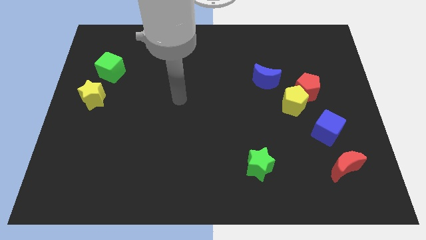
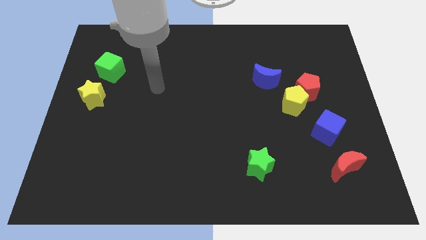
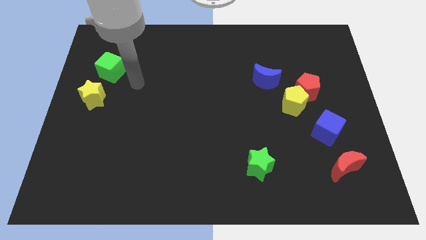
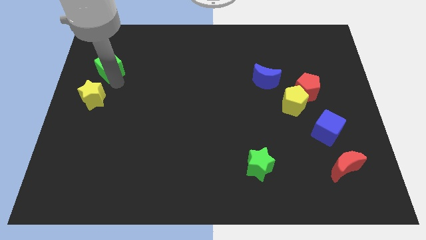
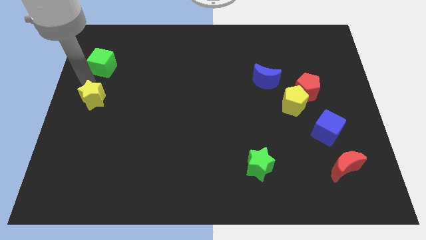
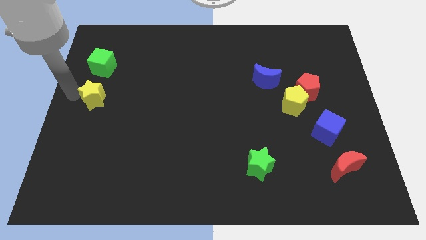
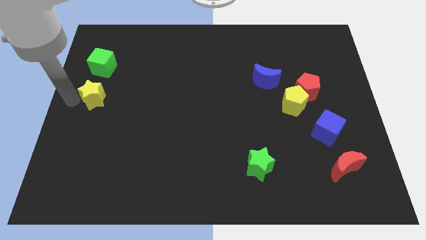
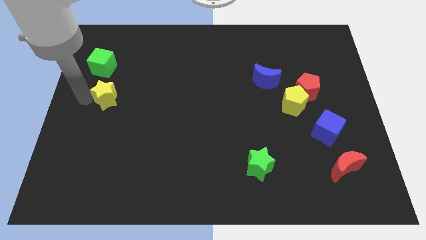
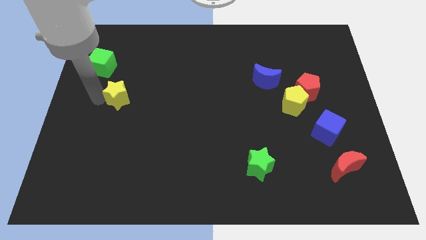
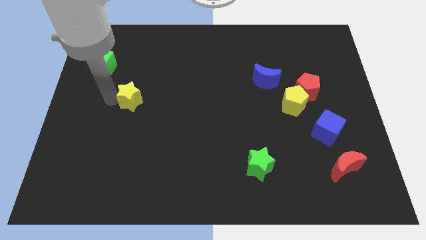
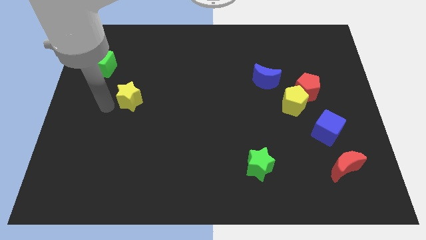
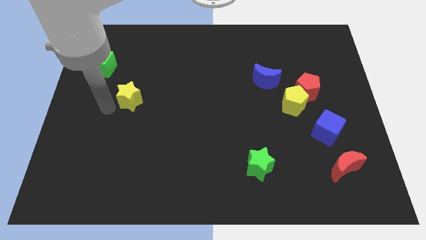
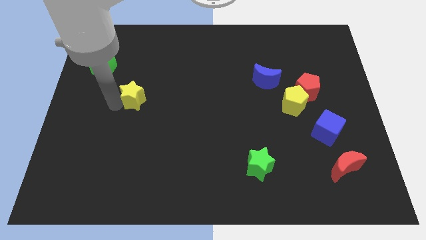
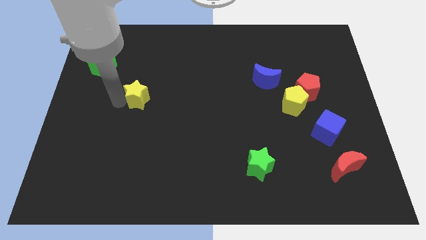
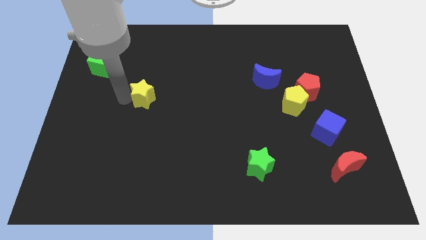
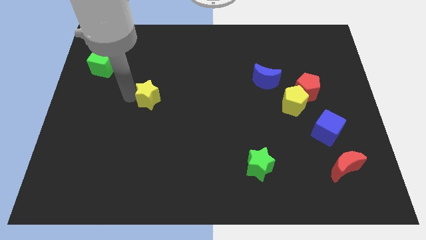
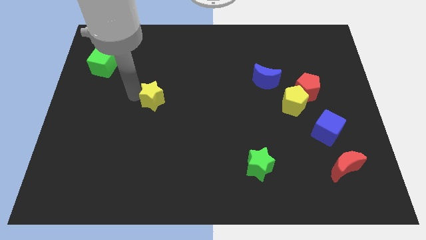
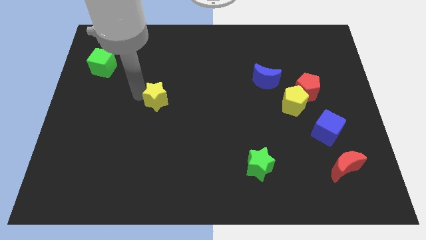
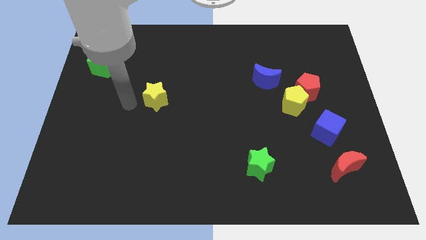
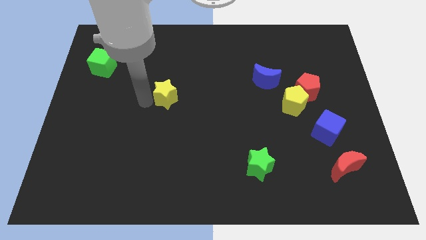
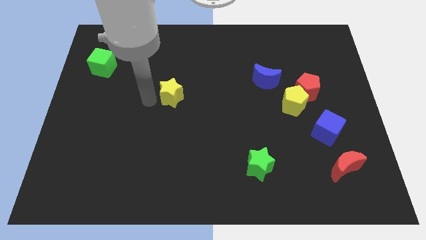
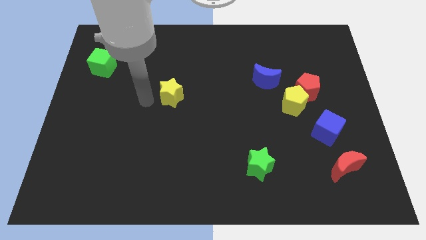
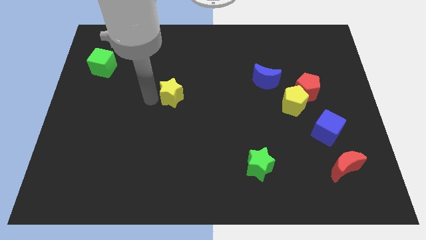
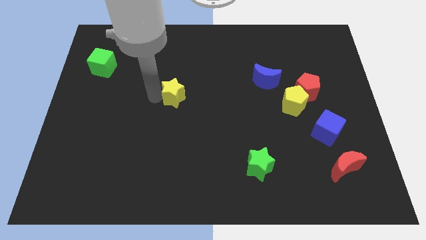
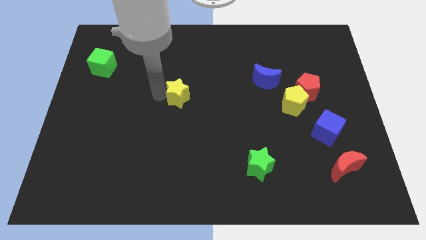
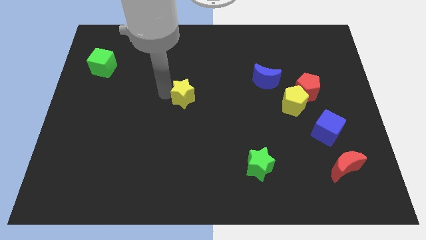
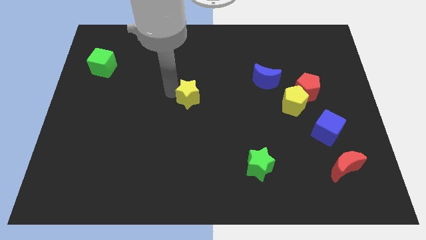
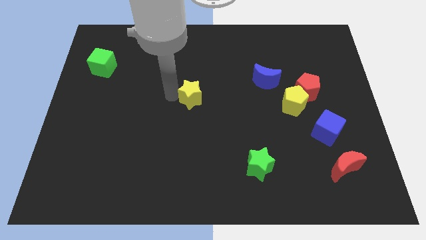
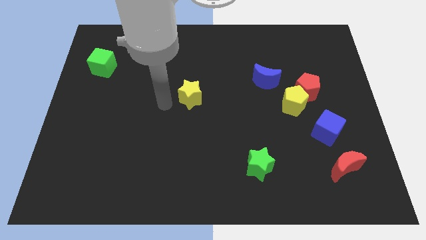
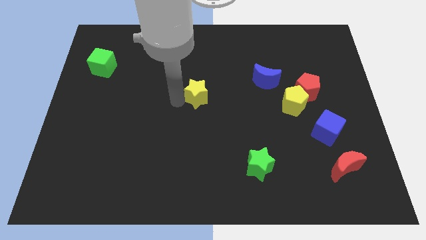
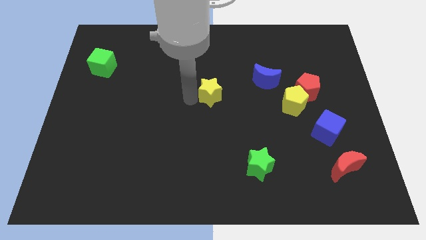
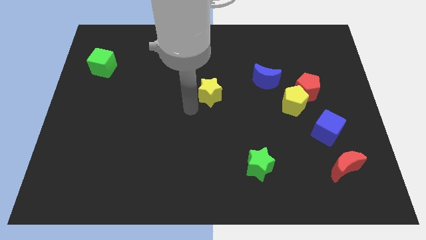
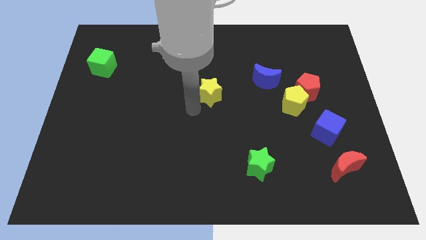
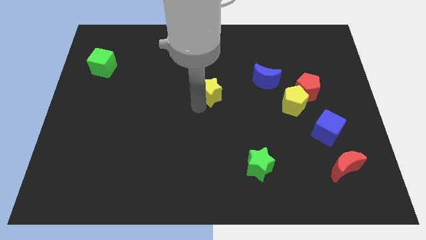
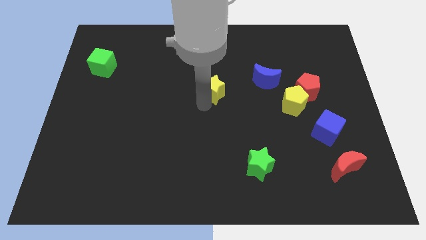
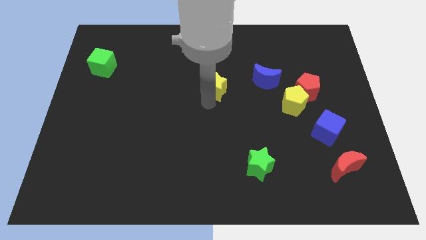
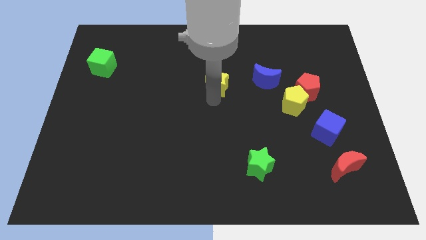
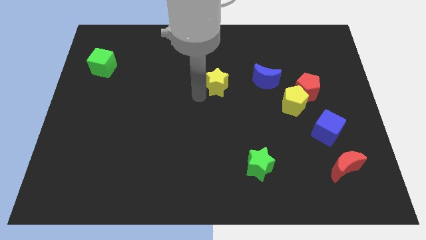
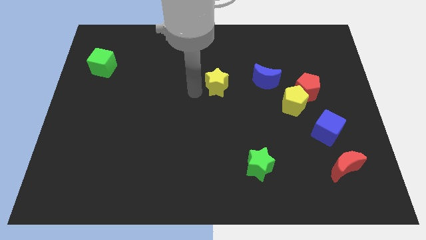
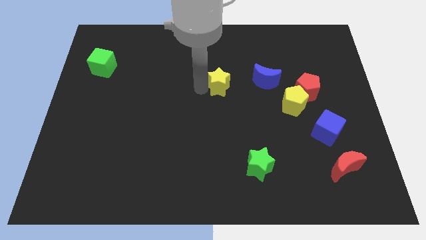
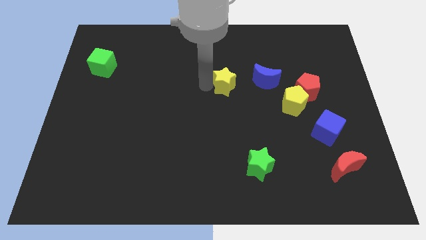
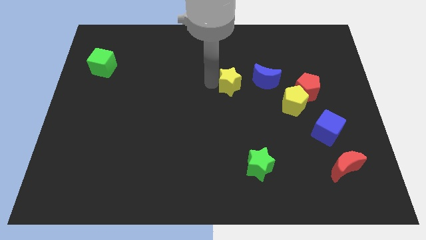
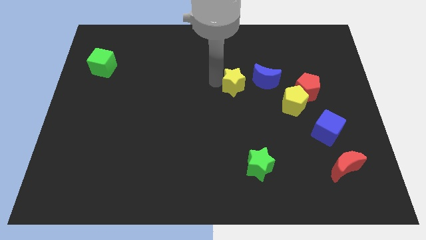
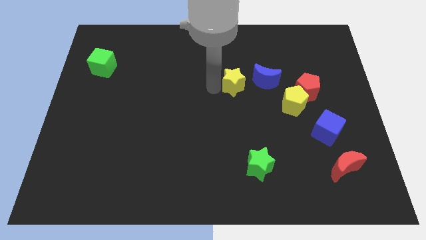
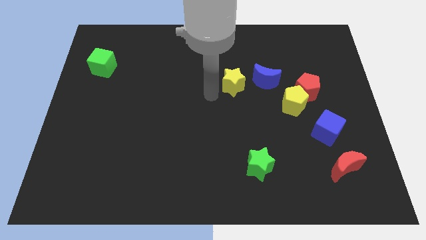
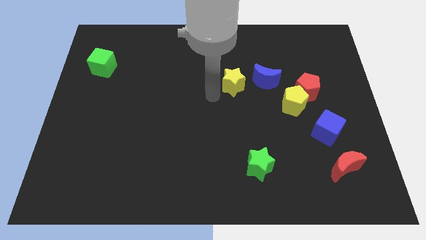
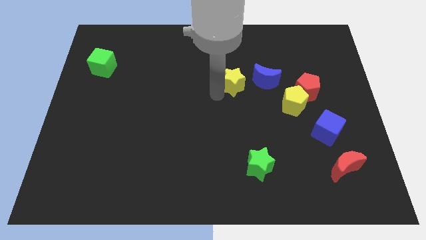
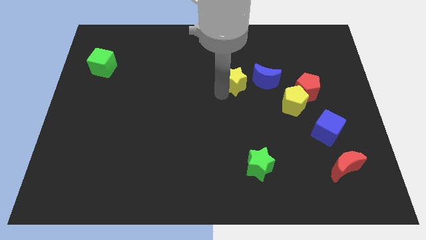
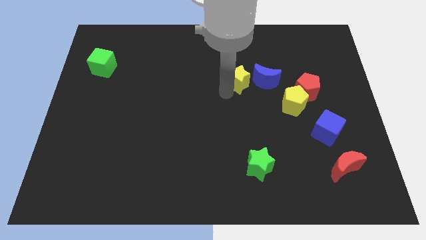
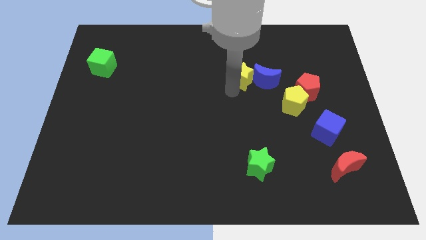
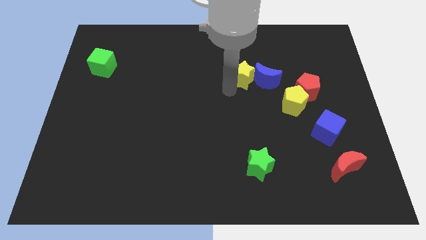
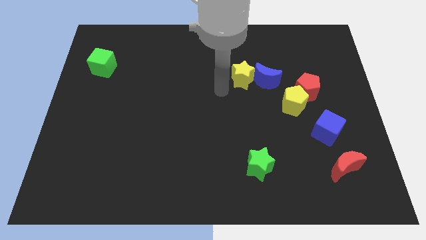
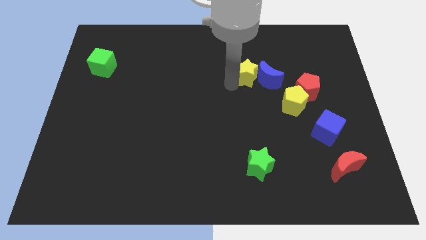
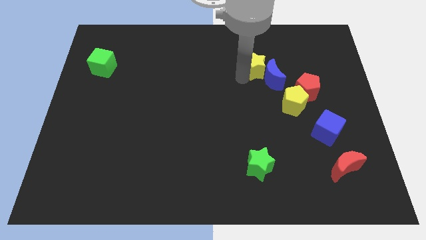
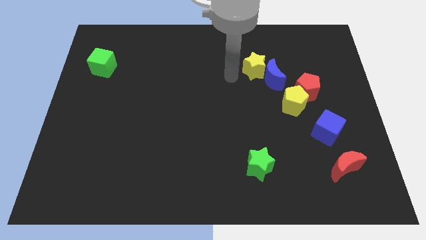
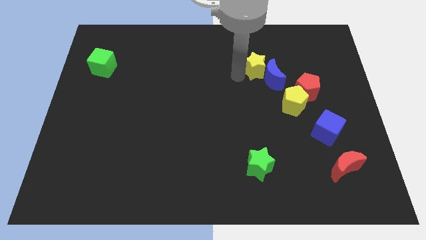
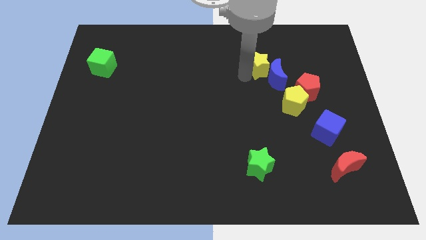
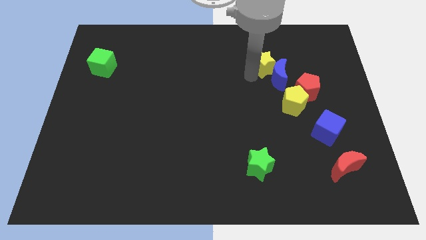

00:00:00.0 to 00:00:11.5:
move the yellow star diagonally up and to the left of the red pentagon

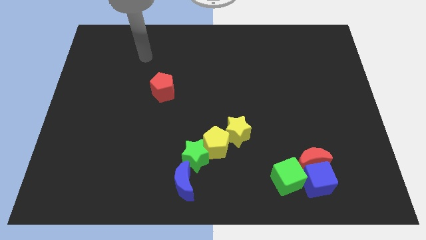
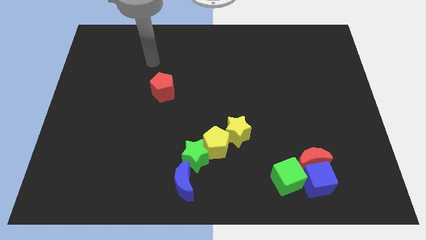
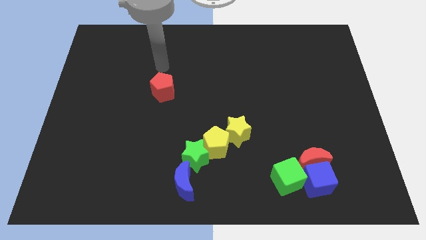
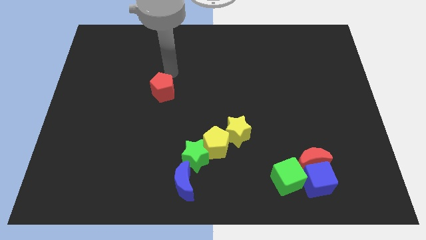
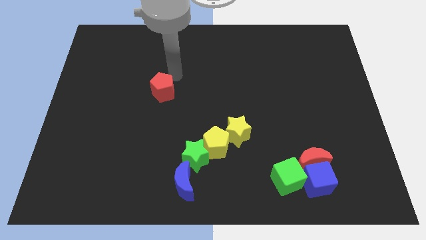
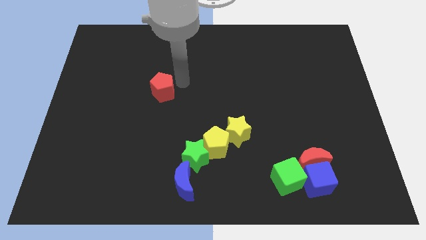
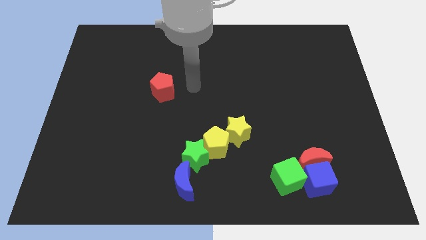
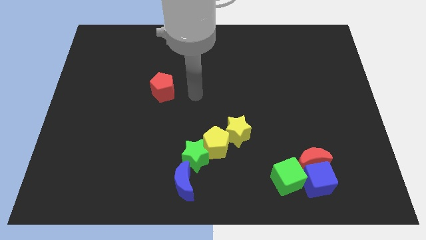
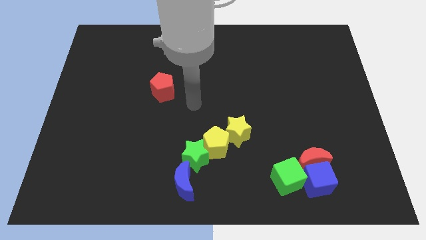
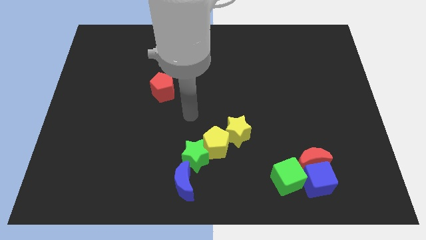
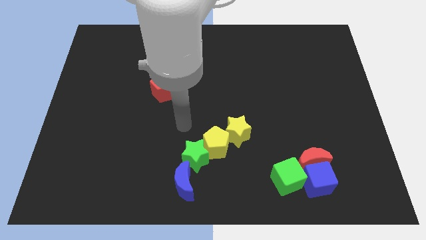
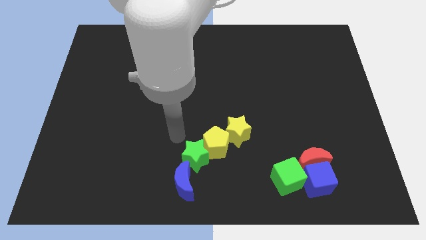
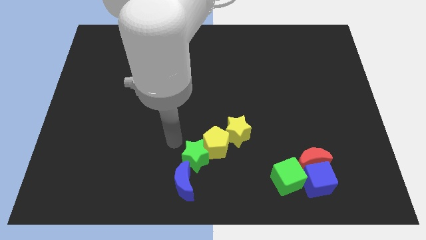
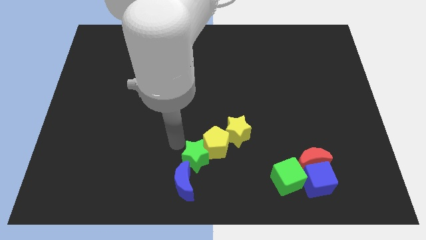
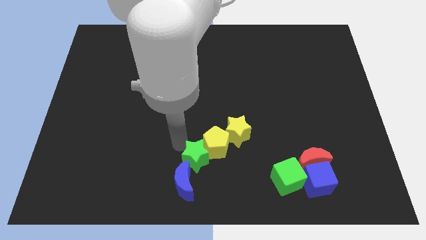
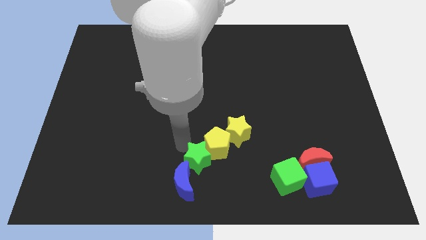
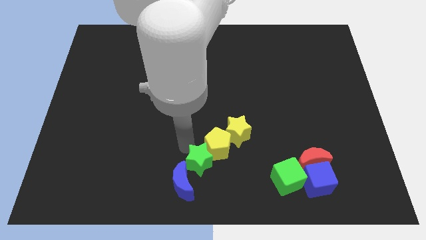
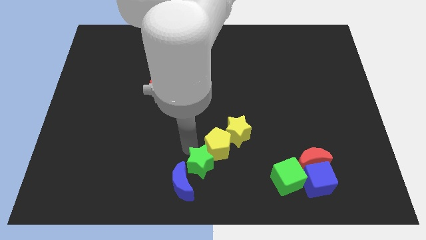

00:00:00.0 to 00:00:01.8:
slide the green star to the right of the blue moon

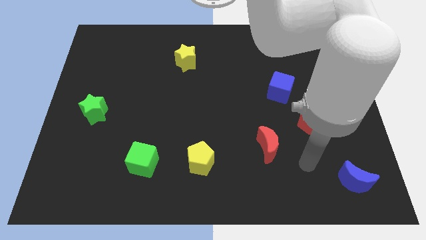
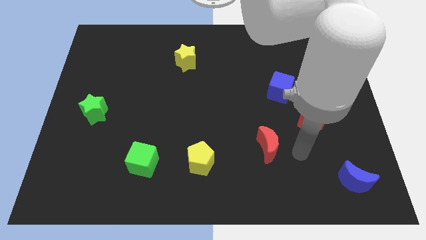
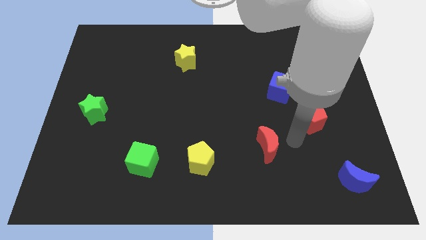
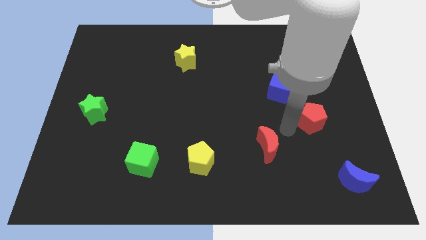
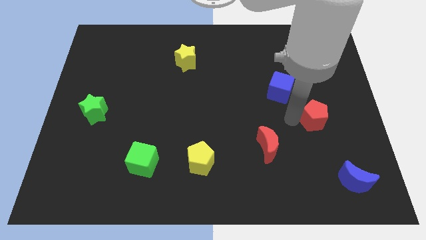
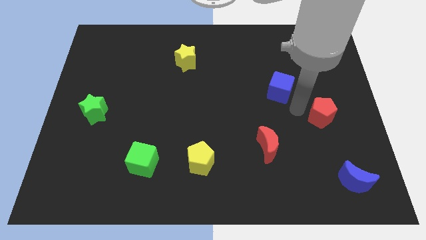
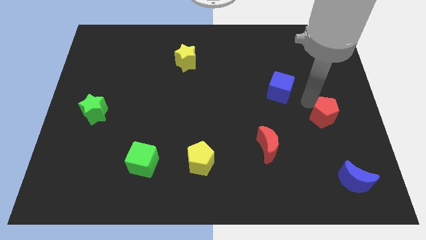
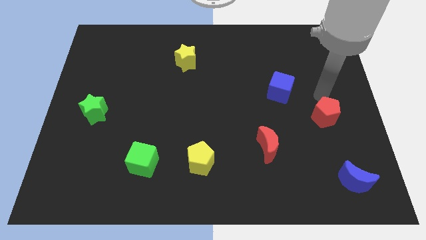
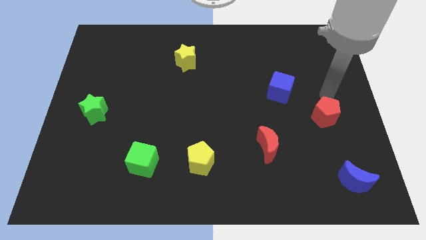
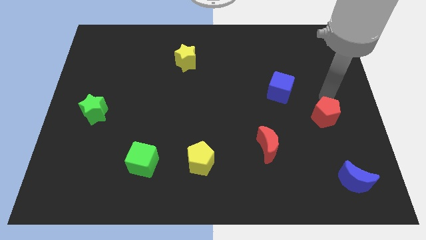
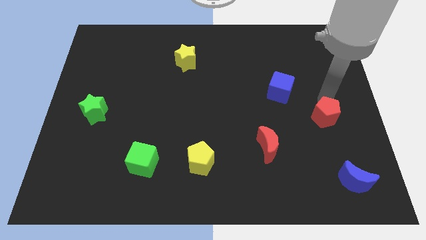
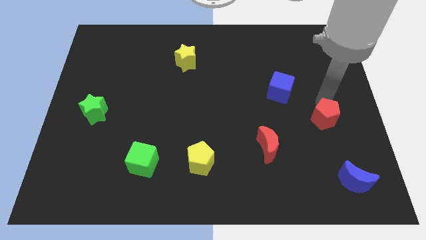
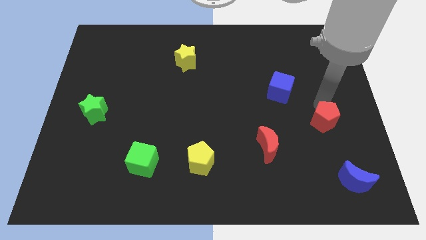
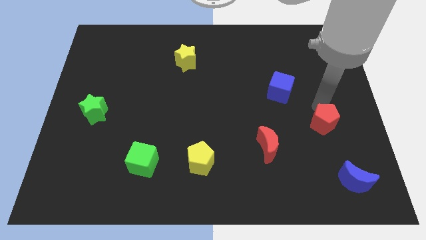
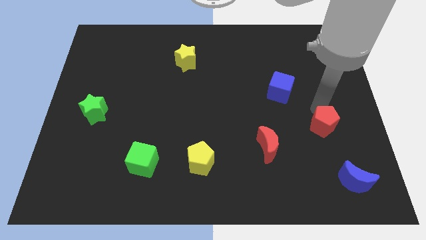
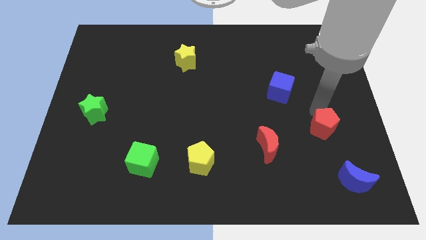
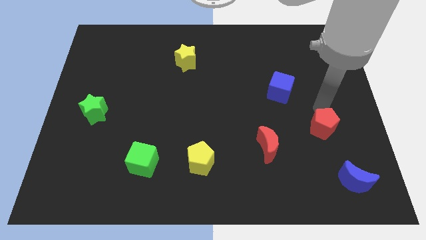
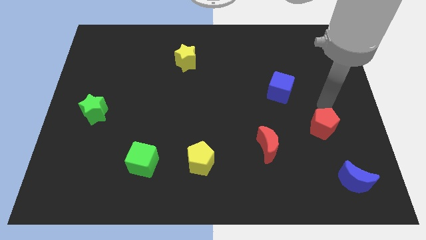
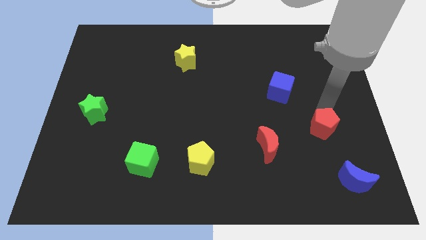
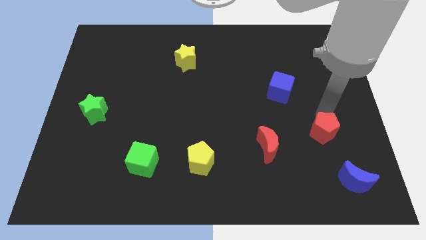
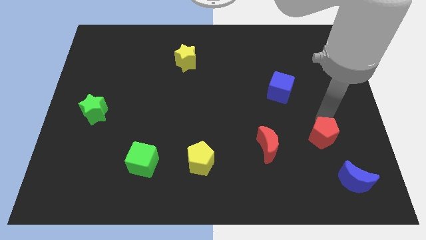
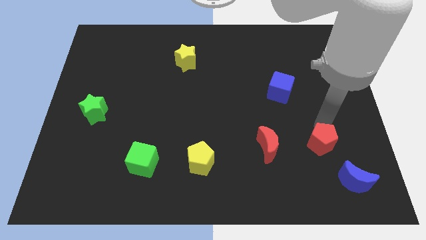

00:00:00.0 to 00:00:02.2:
move the red pentagon to the top left side of the blue moon
